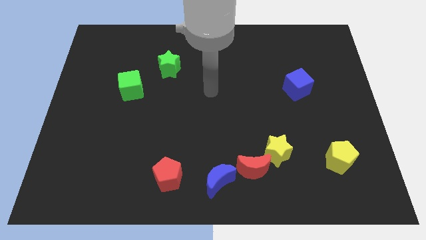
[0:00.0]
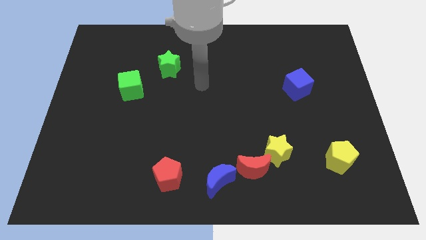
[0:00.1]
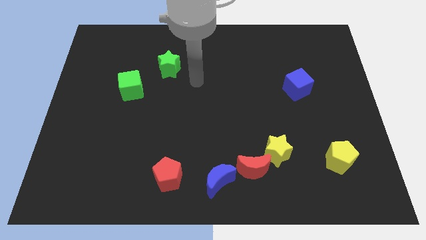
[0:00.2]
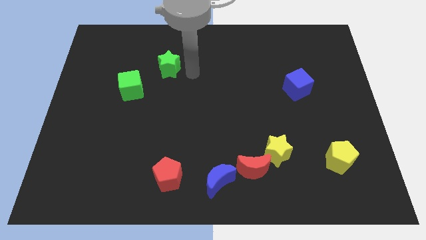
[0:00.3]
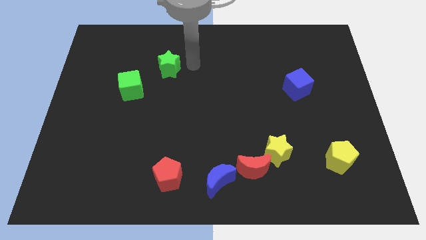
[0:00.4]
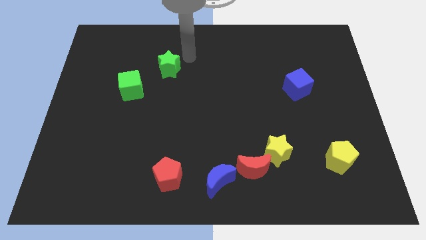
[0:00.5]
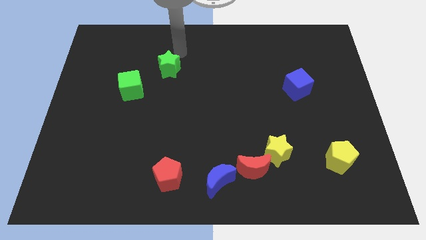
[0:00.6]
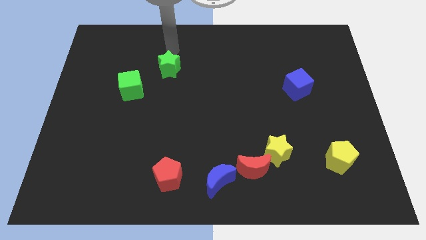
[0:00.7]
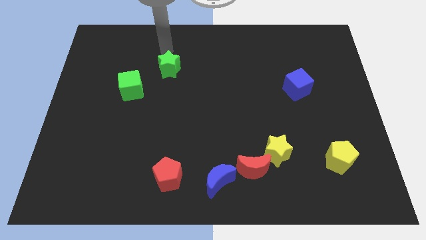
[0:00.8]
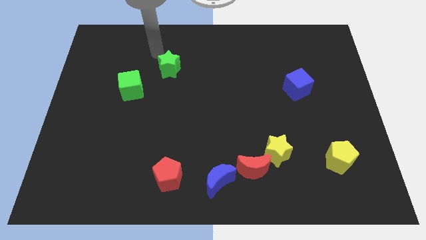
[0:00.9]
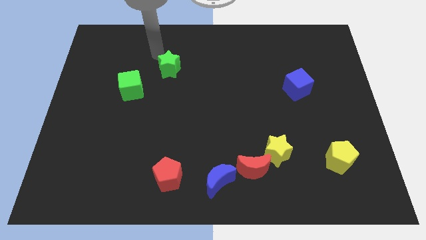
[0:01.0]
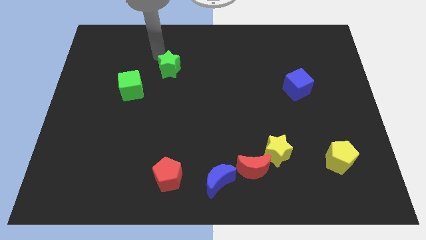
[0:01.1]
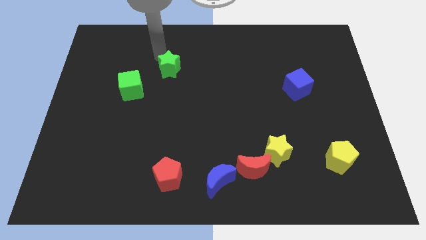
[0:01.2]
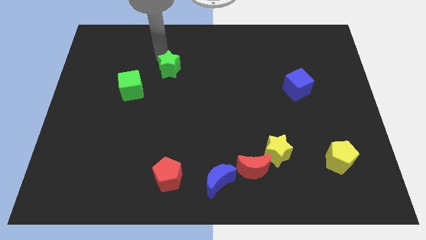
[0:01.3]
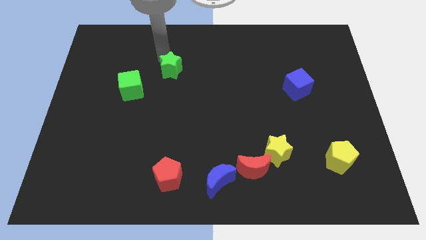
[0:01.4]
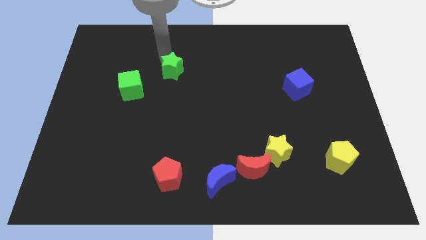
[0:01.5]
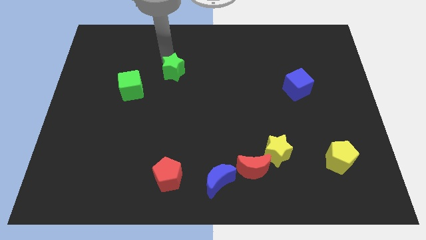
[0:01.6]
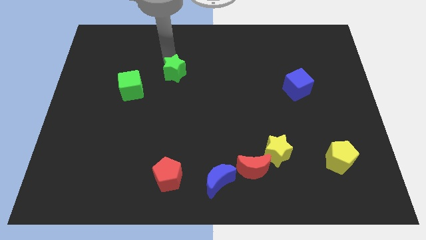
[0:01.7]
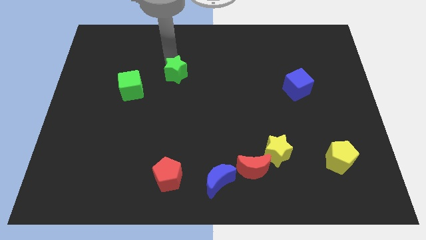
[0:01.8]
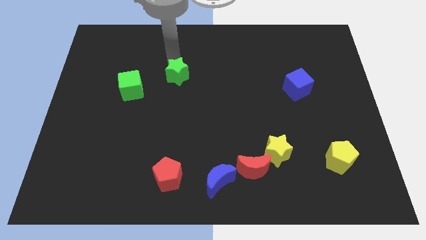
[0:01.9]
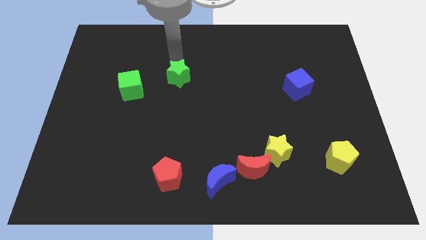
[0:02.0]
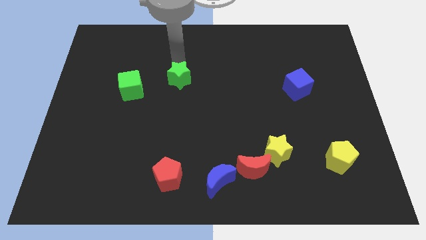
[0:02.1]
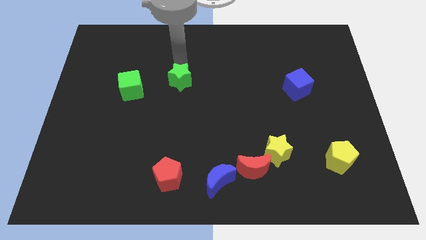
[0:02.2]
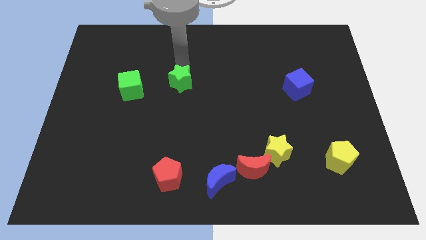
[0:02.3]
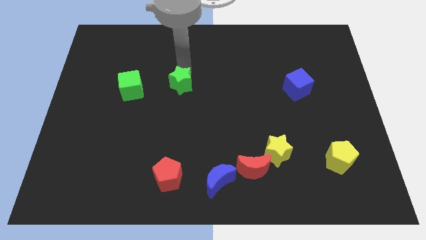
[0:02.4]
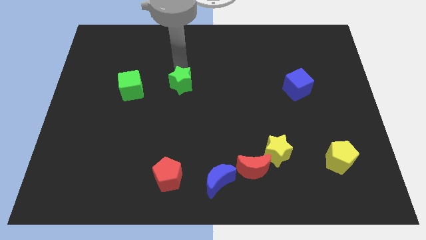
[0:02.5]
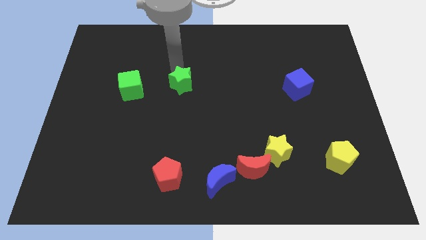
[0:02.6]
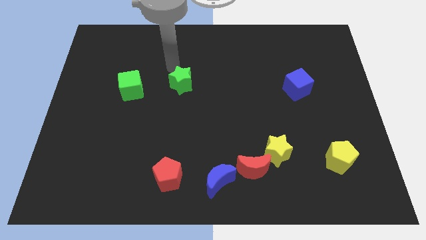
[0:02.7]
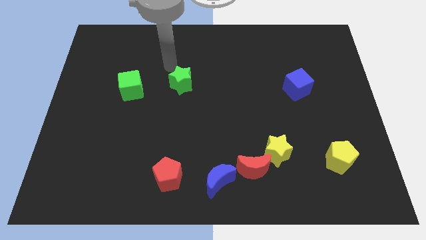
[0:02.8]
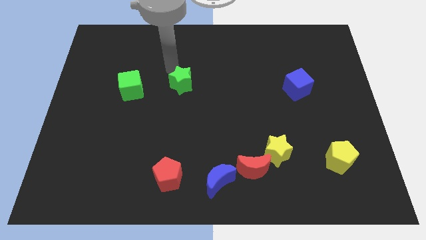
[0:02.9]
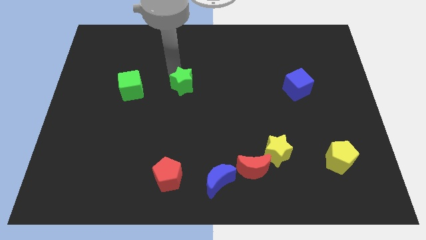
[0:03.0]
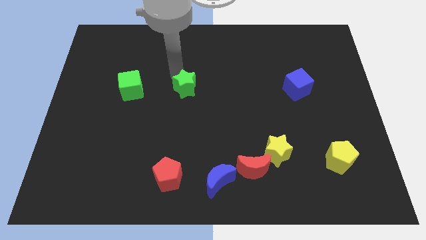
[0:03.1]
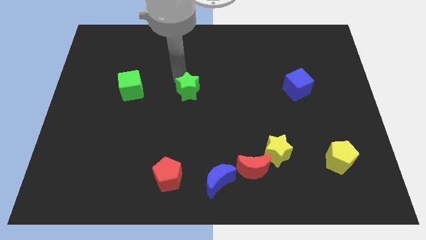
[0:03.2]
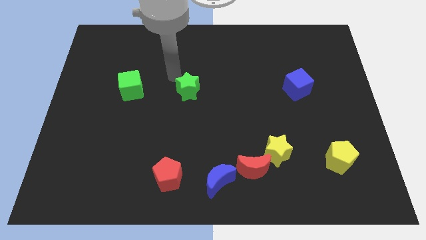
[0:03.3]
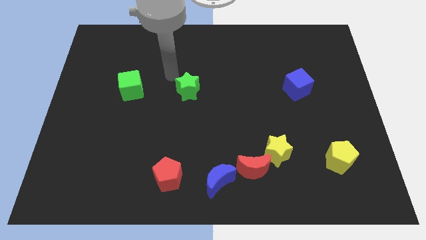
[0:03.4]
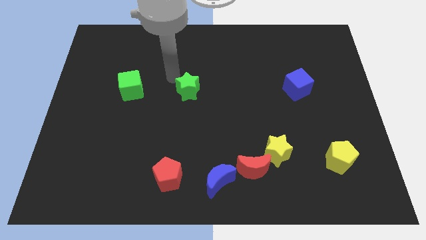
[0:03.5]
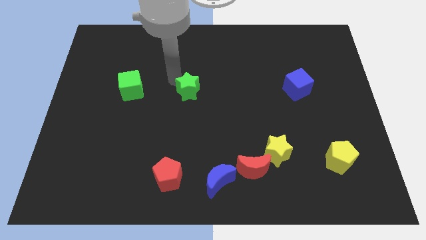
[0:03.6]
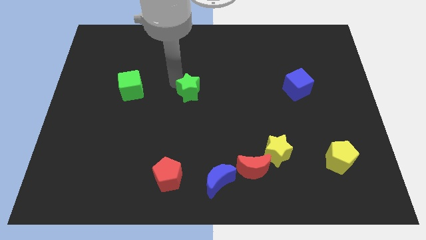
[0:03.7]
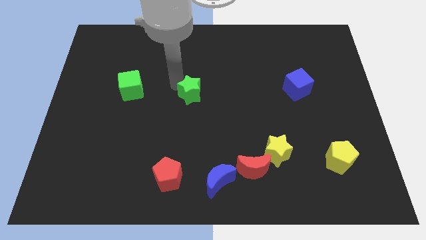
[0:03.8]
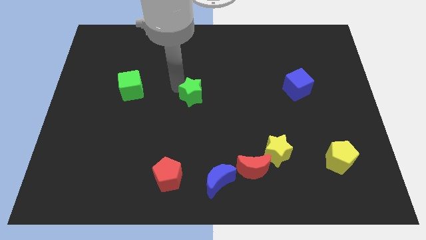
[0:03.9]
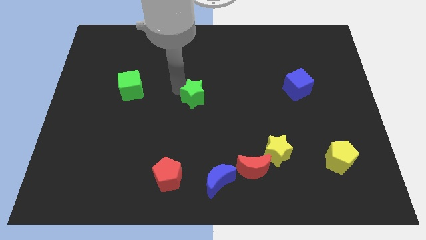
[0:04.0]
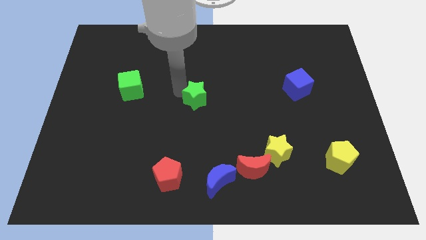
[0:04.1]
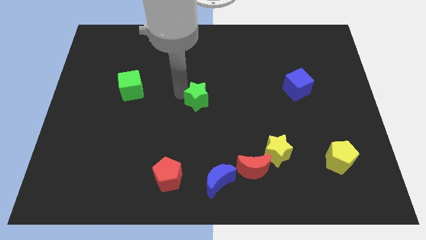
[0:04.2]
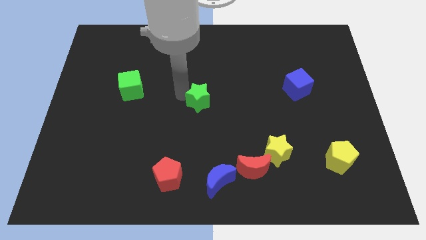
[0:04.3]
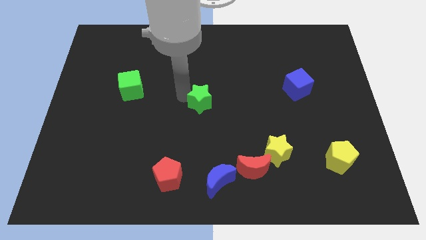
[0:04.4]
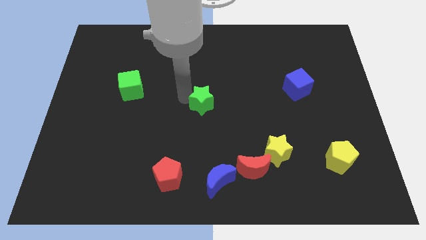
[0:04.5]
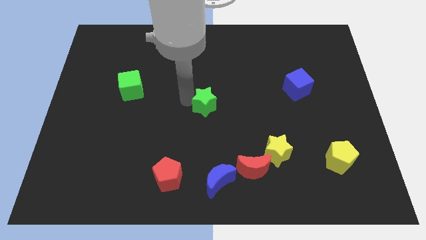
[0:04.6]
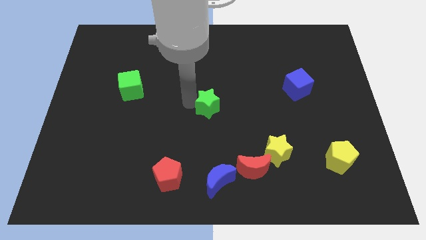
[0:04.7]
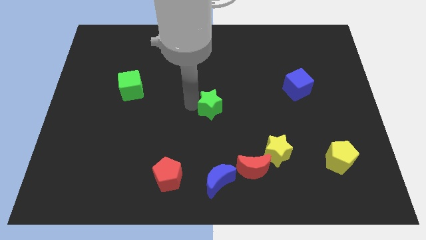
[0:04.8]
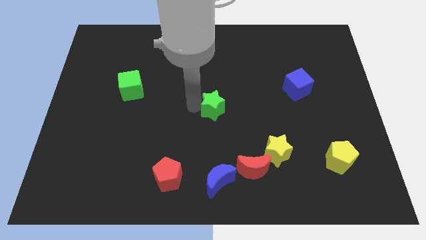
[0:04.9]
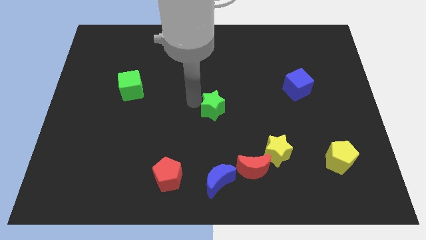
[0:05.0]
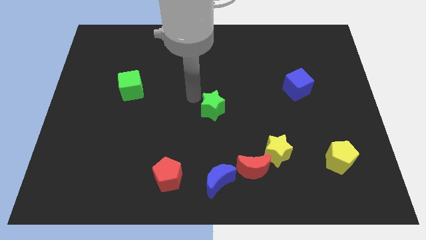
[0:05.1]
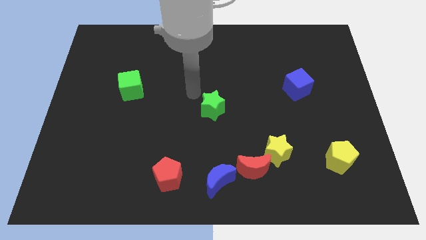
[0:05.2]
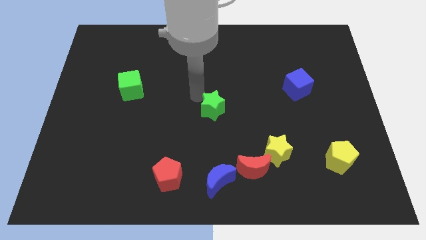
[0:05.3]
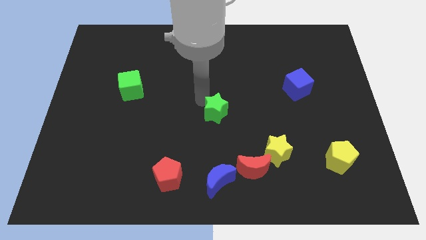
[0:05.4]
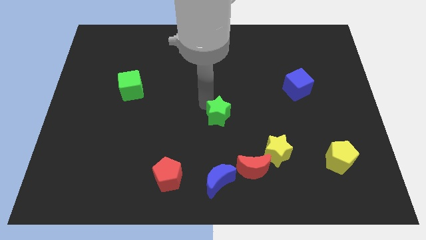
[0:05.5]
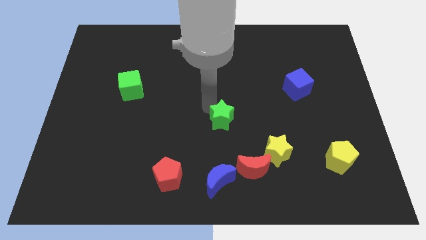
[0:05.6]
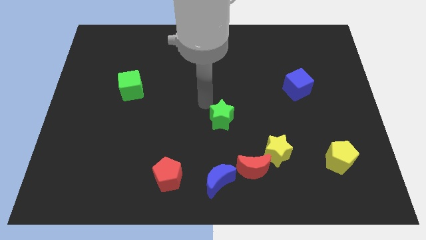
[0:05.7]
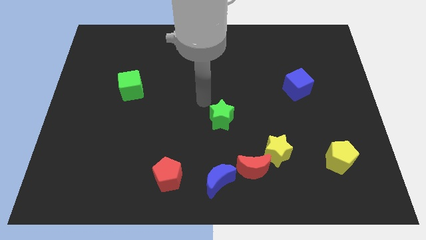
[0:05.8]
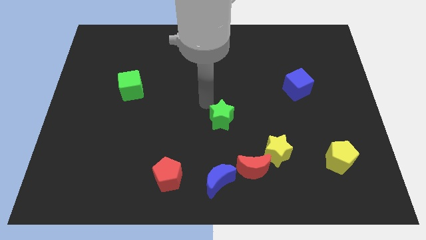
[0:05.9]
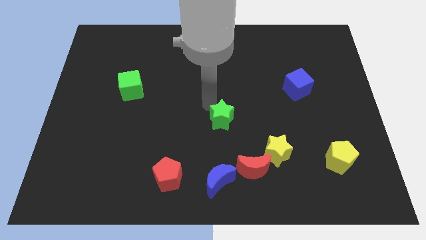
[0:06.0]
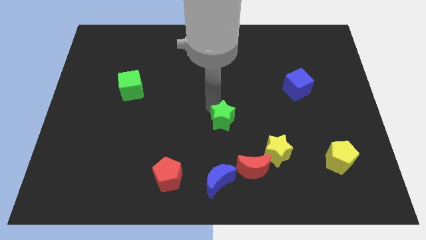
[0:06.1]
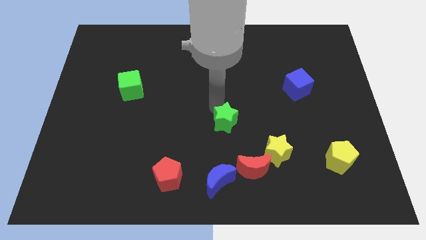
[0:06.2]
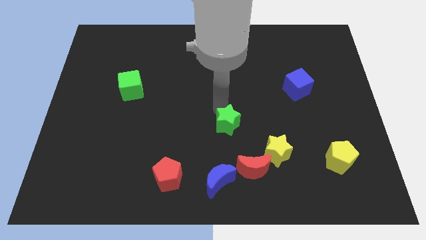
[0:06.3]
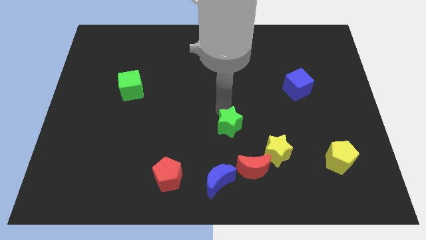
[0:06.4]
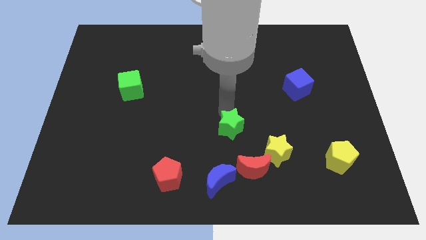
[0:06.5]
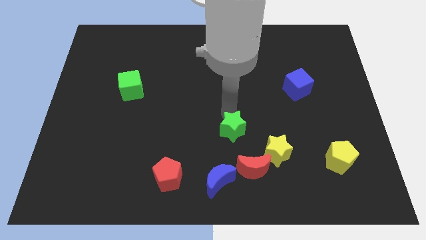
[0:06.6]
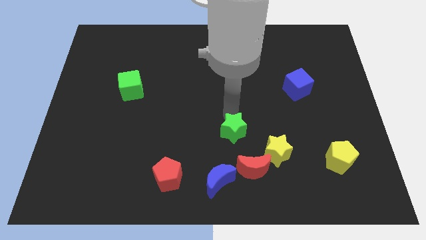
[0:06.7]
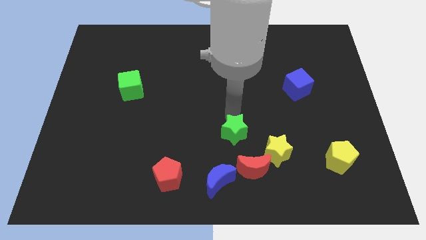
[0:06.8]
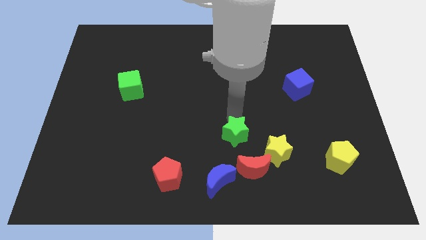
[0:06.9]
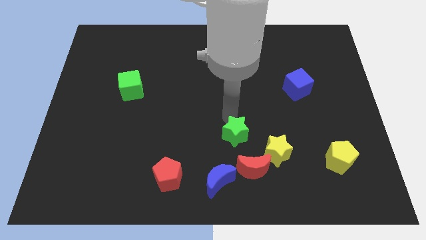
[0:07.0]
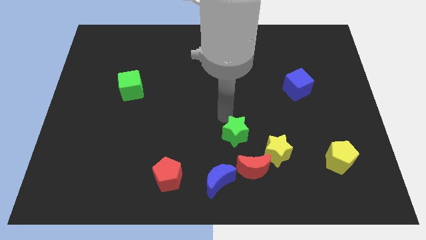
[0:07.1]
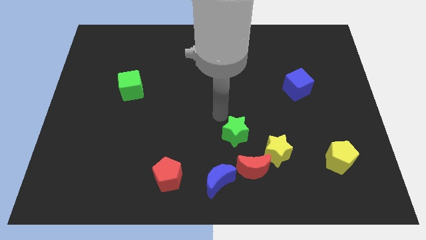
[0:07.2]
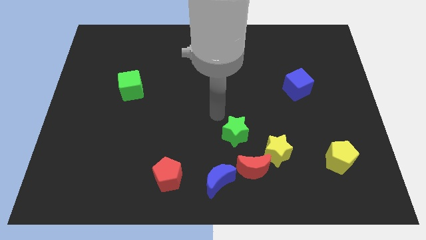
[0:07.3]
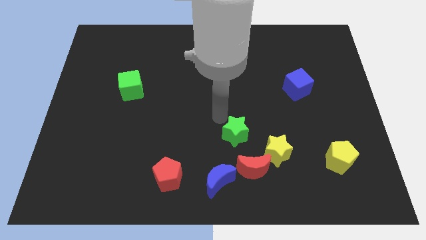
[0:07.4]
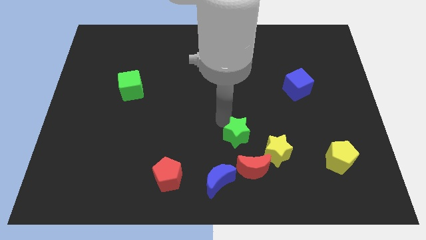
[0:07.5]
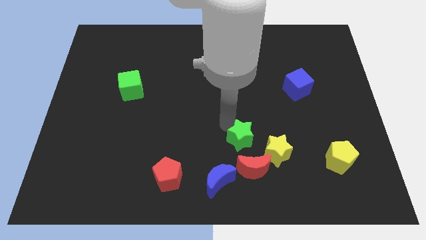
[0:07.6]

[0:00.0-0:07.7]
slide the green star to the top right side of the blue moon

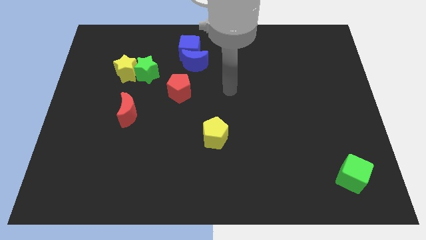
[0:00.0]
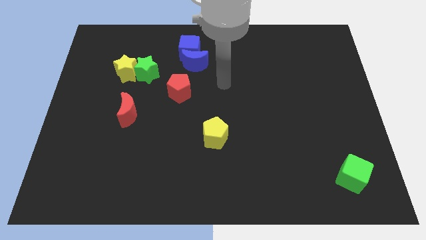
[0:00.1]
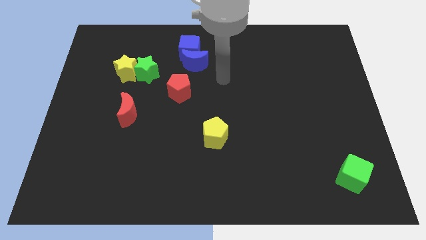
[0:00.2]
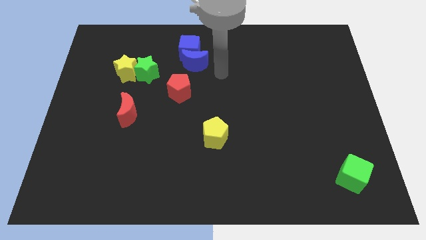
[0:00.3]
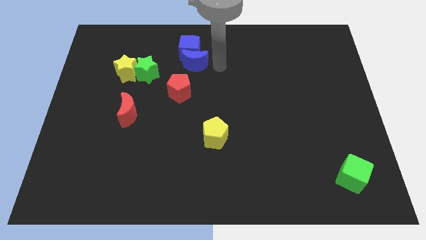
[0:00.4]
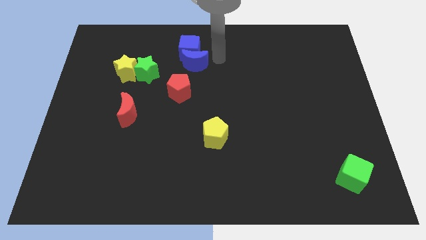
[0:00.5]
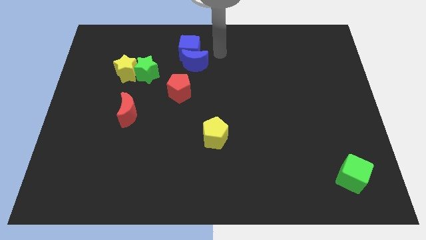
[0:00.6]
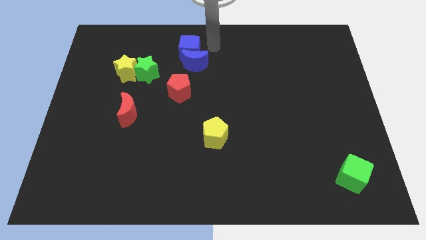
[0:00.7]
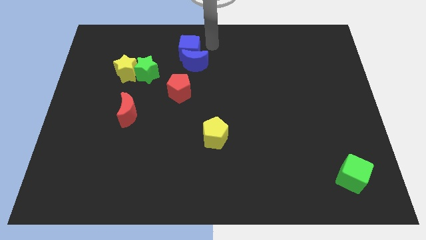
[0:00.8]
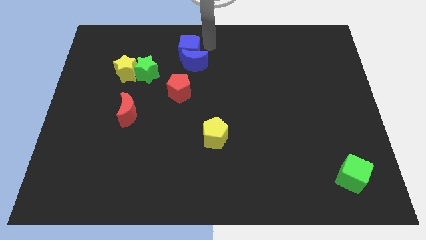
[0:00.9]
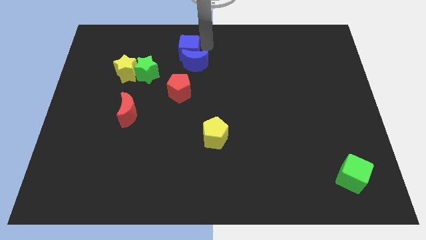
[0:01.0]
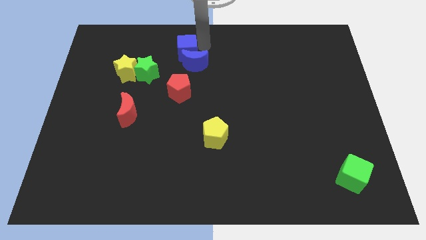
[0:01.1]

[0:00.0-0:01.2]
slide the blue cube to the top right side of the green star
